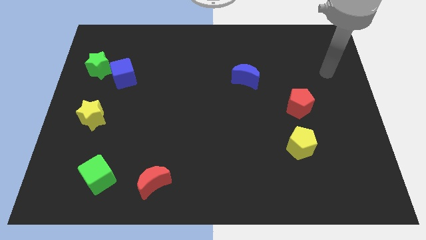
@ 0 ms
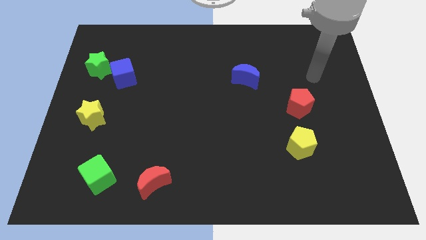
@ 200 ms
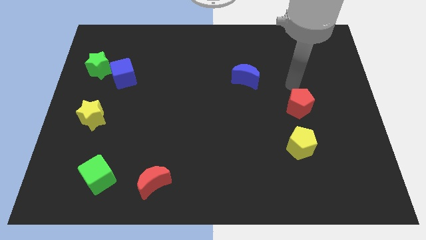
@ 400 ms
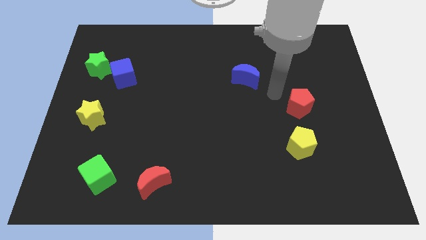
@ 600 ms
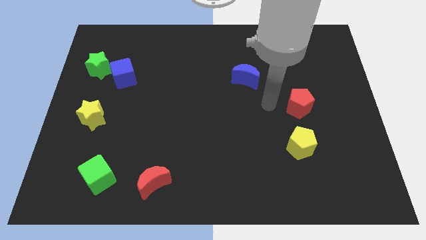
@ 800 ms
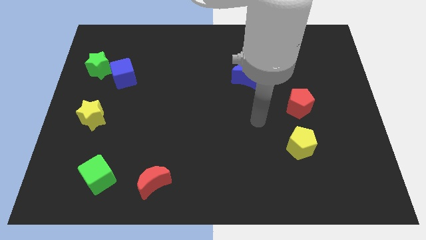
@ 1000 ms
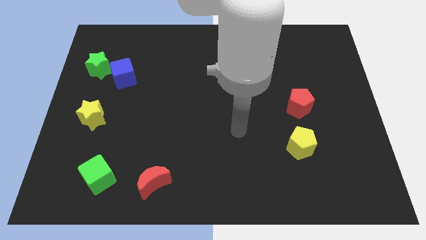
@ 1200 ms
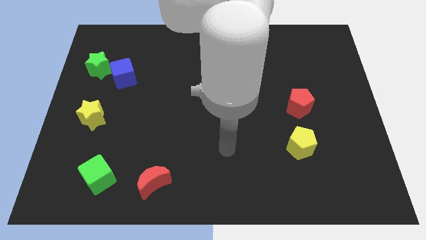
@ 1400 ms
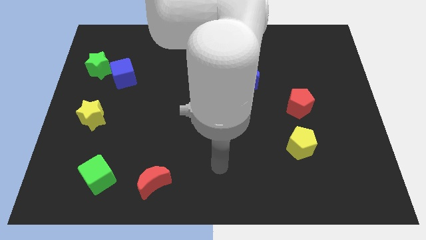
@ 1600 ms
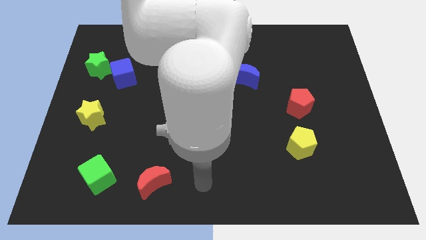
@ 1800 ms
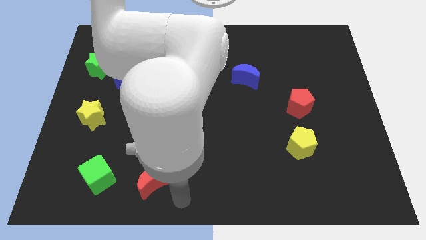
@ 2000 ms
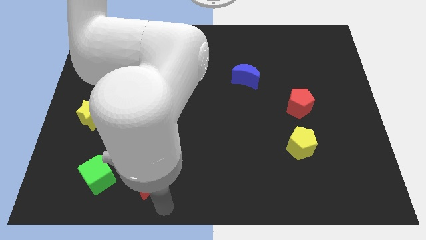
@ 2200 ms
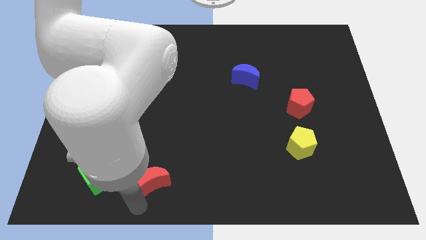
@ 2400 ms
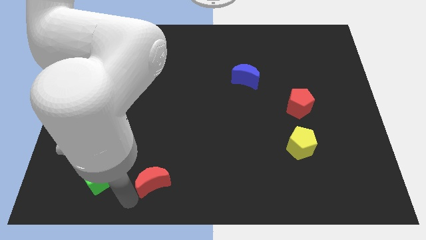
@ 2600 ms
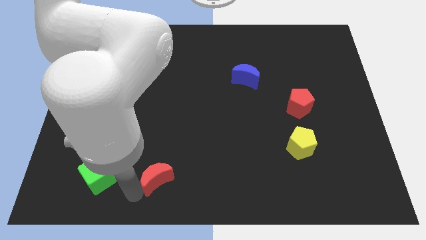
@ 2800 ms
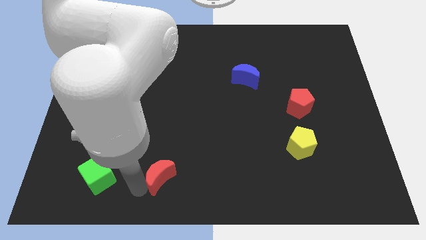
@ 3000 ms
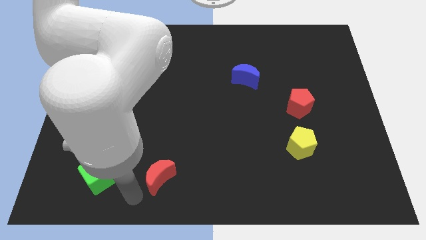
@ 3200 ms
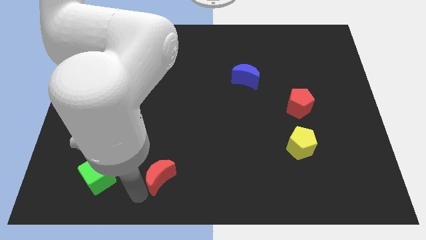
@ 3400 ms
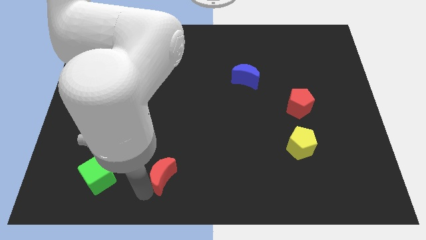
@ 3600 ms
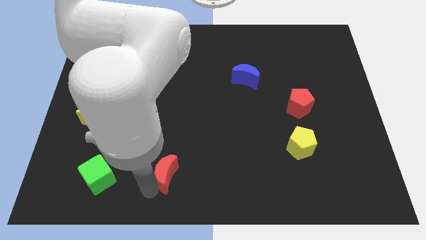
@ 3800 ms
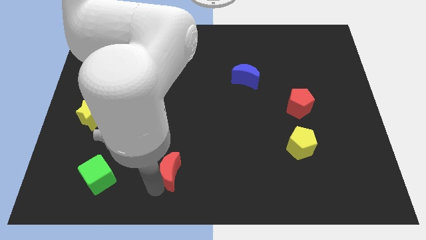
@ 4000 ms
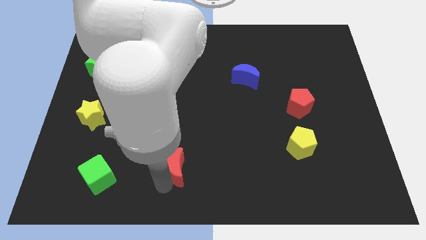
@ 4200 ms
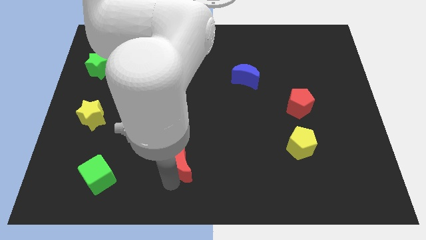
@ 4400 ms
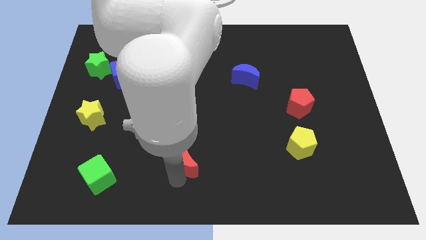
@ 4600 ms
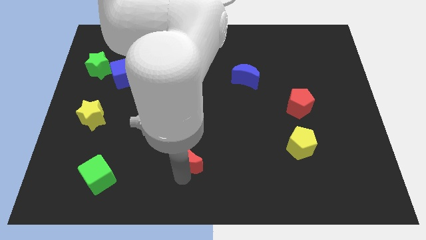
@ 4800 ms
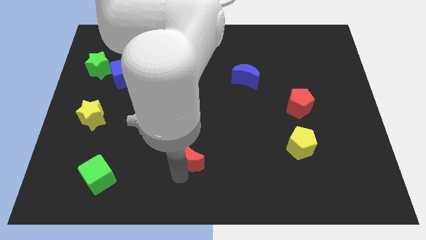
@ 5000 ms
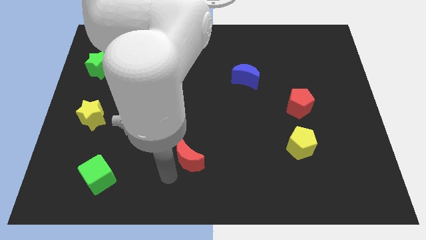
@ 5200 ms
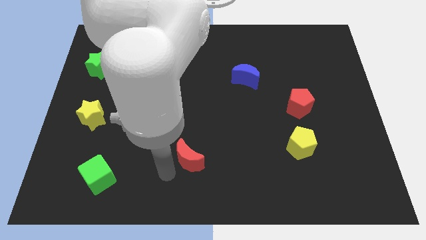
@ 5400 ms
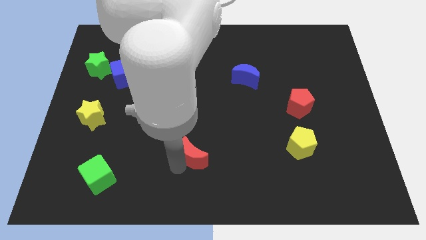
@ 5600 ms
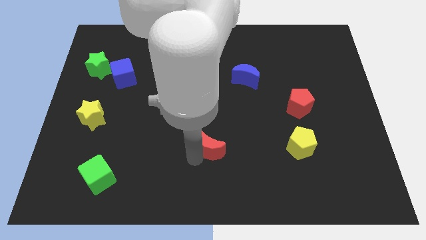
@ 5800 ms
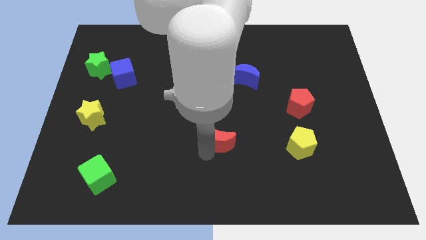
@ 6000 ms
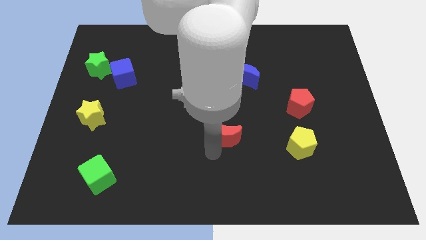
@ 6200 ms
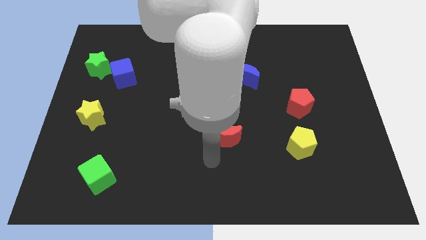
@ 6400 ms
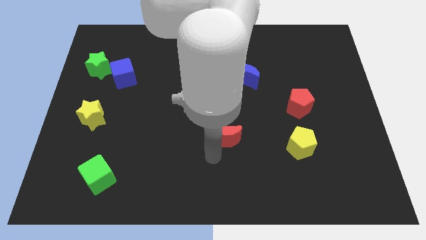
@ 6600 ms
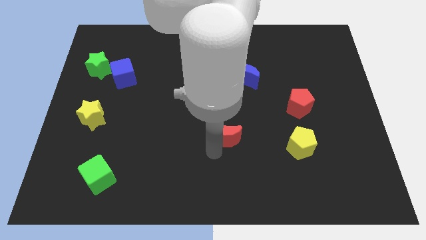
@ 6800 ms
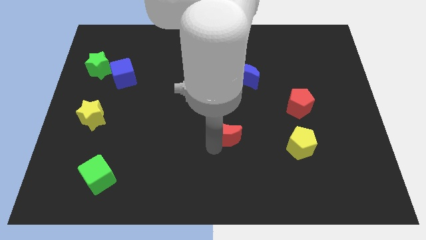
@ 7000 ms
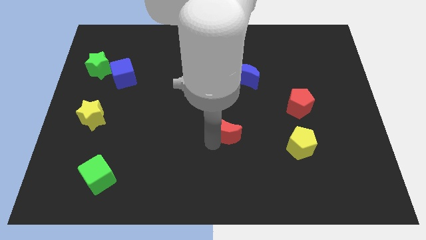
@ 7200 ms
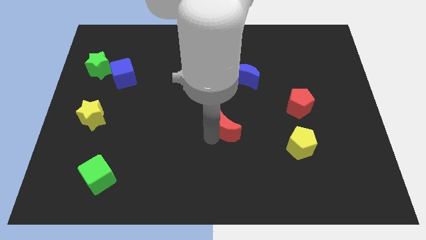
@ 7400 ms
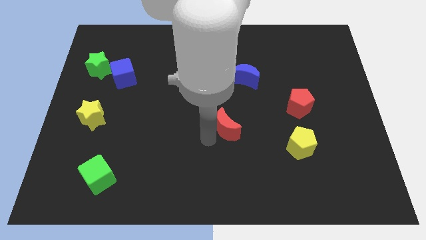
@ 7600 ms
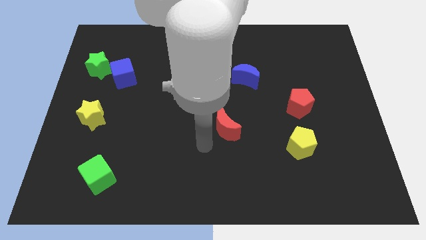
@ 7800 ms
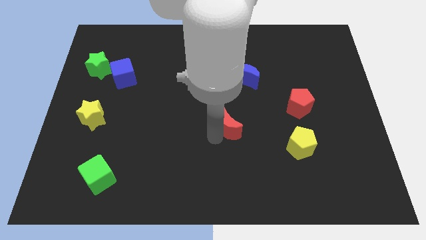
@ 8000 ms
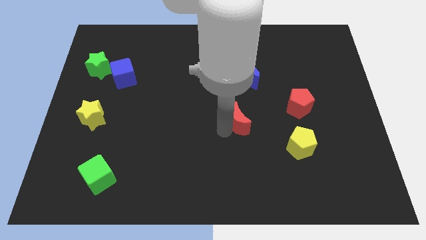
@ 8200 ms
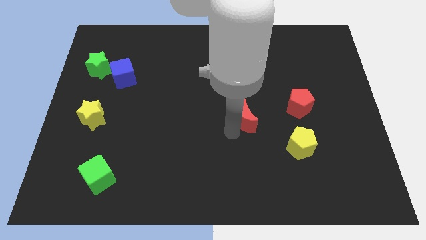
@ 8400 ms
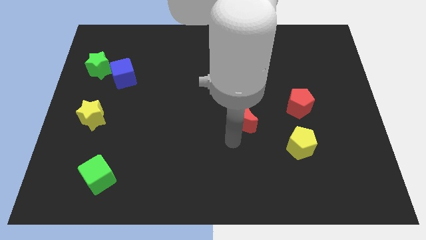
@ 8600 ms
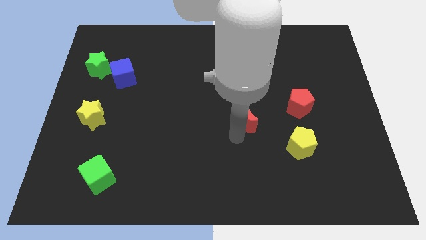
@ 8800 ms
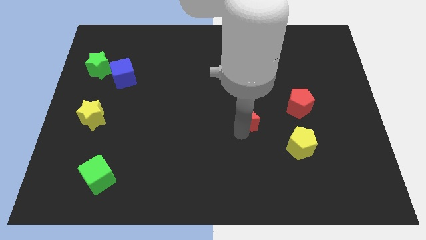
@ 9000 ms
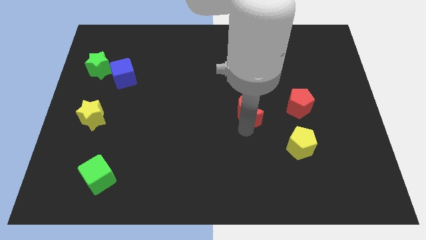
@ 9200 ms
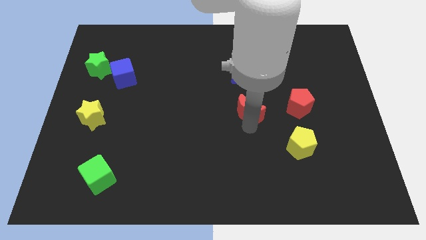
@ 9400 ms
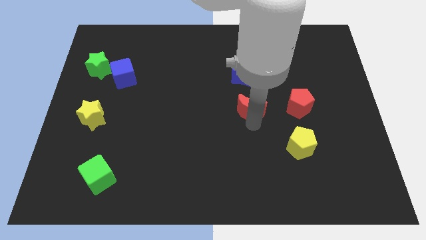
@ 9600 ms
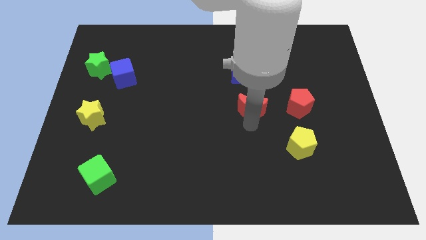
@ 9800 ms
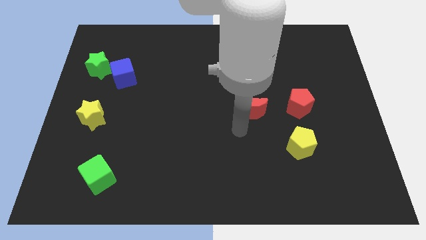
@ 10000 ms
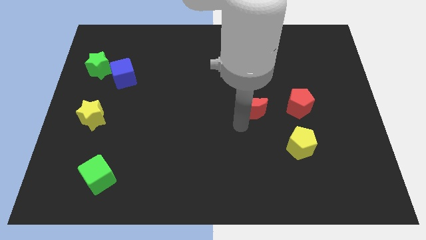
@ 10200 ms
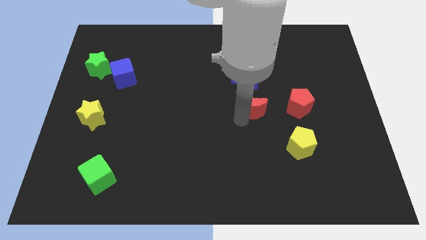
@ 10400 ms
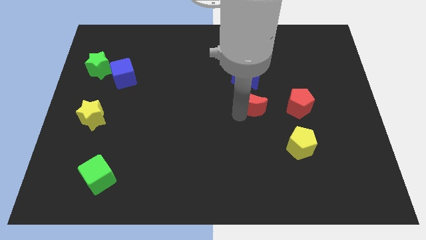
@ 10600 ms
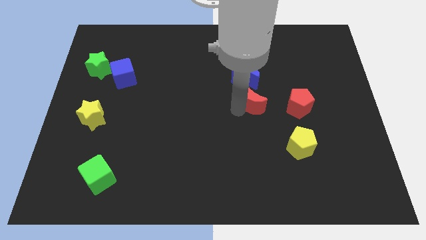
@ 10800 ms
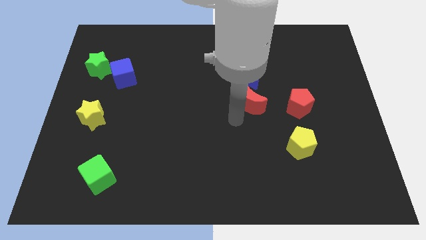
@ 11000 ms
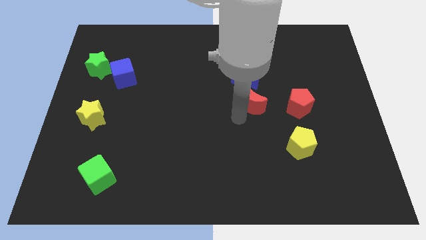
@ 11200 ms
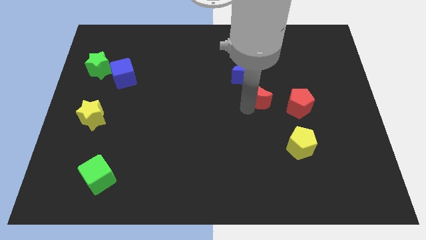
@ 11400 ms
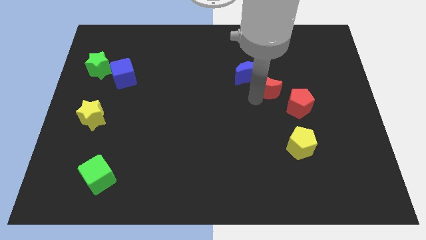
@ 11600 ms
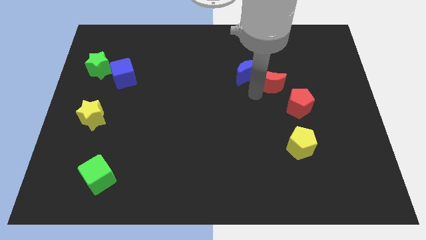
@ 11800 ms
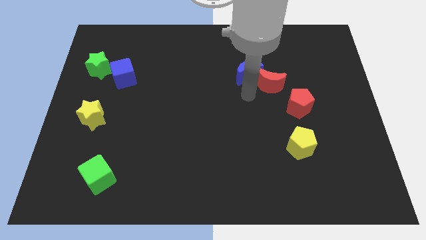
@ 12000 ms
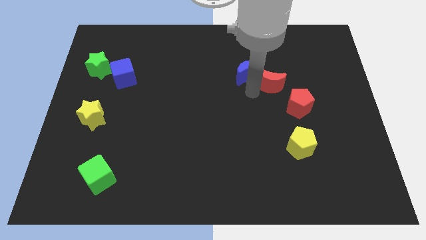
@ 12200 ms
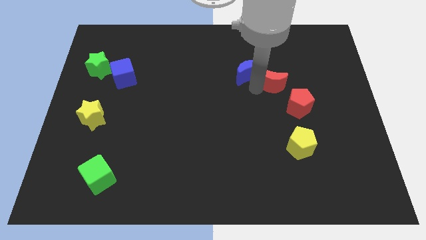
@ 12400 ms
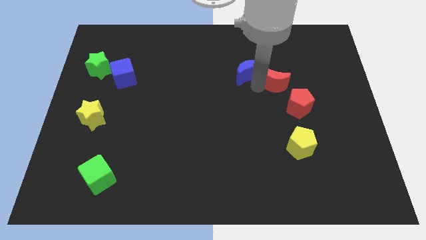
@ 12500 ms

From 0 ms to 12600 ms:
move the red moon above the red pentagon

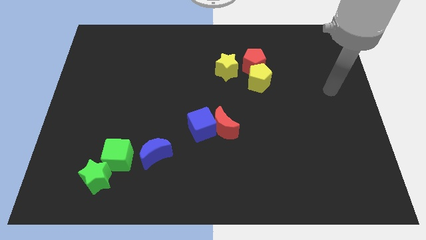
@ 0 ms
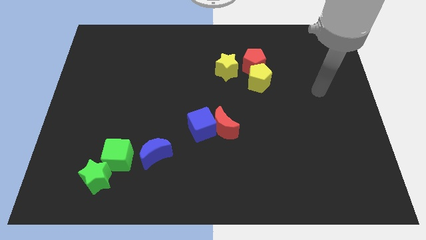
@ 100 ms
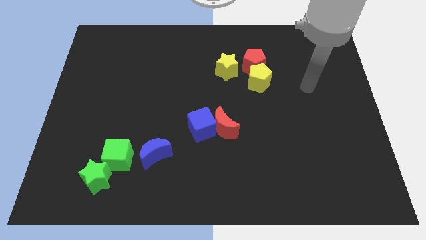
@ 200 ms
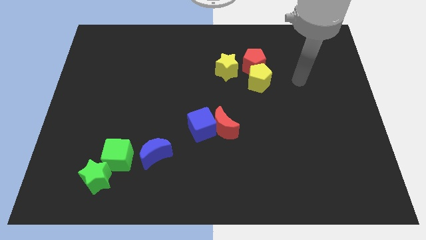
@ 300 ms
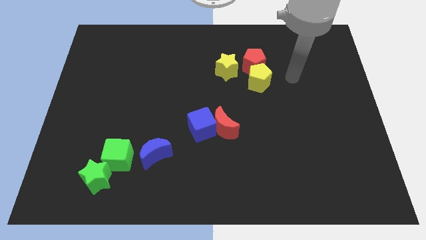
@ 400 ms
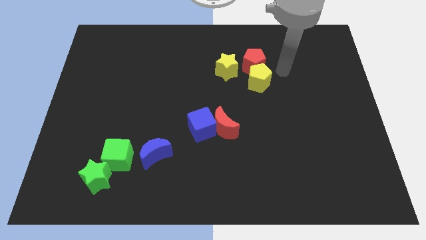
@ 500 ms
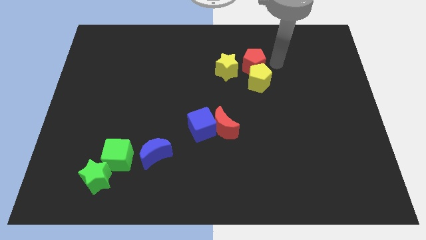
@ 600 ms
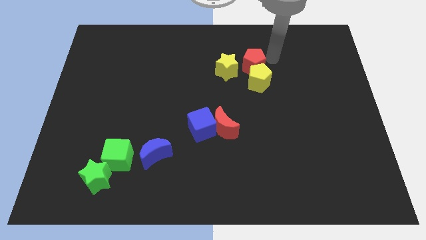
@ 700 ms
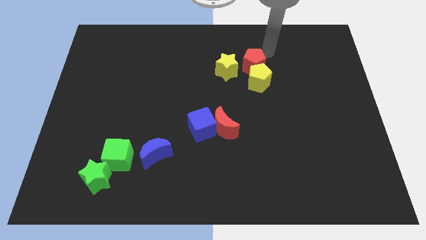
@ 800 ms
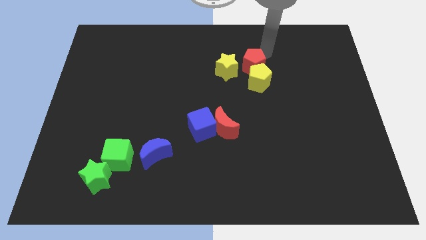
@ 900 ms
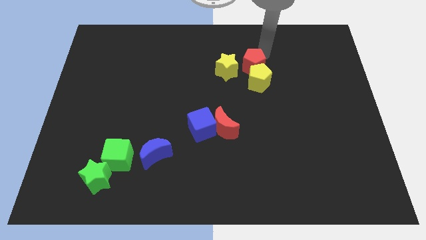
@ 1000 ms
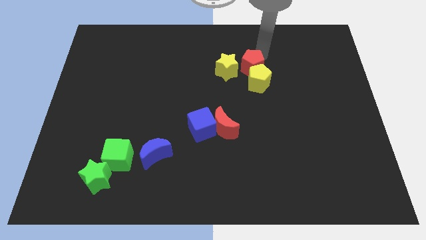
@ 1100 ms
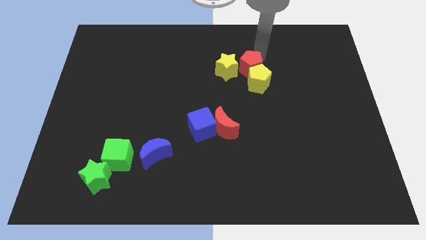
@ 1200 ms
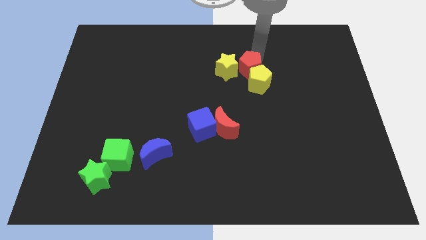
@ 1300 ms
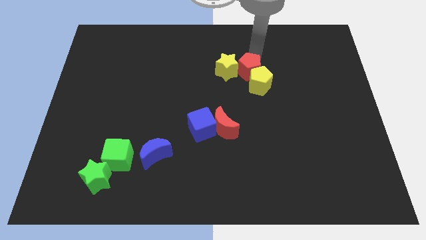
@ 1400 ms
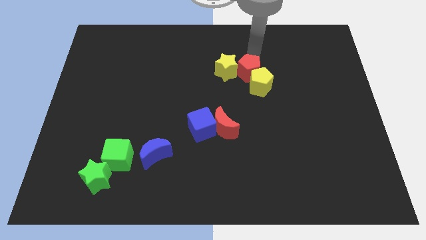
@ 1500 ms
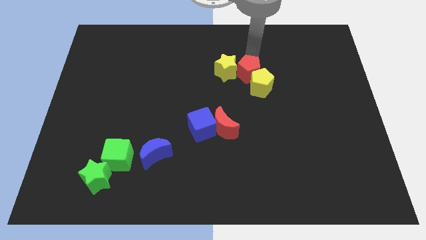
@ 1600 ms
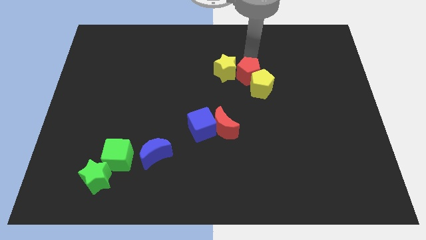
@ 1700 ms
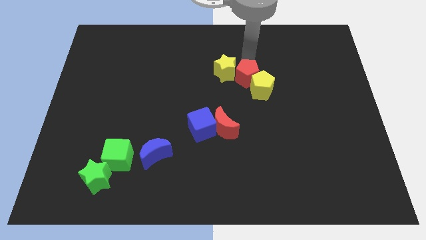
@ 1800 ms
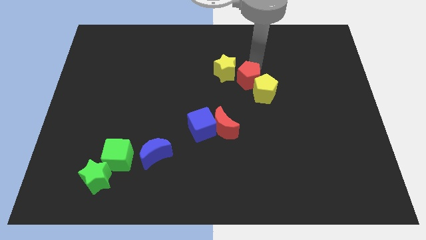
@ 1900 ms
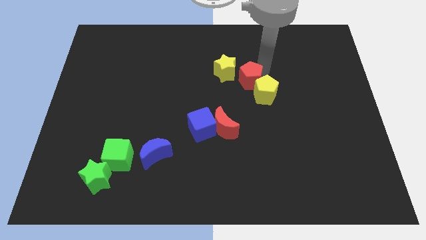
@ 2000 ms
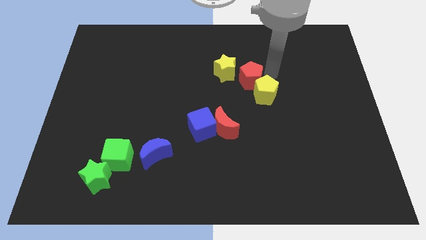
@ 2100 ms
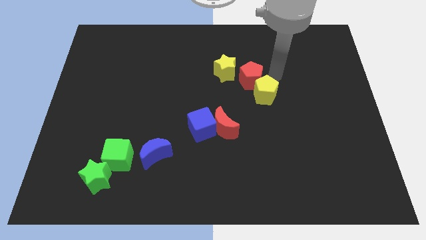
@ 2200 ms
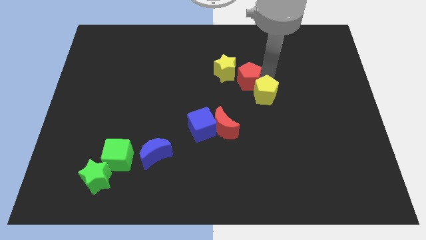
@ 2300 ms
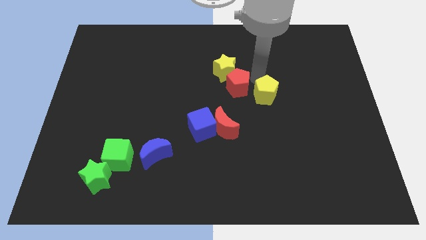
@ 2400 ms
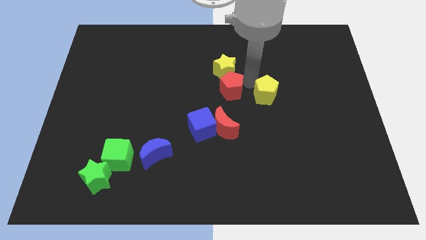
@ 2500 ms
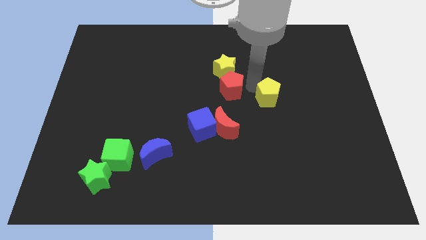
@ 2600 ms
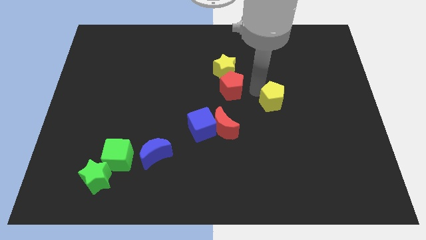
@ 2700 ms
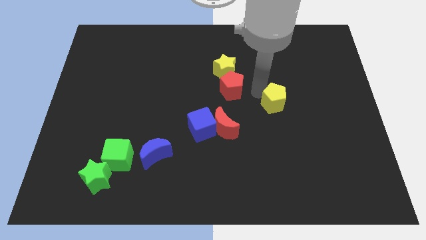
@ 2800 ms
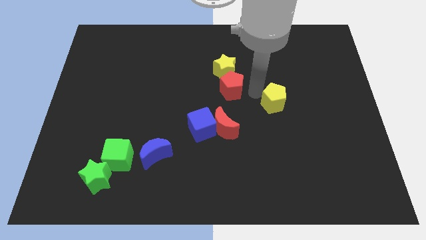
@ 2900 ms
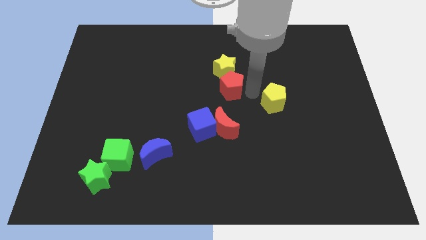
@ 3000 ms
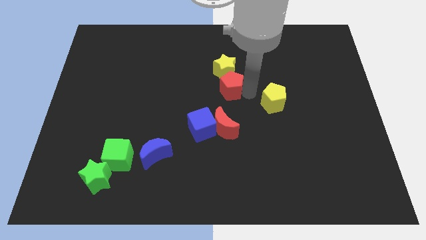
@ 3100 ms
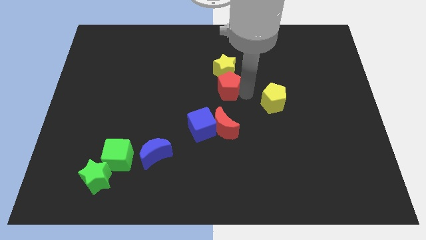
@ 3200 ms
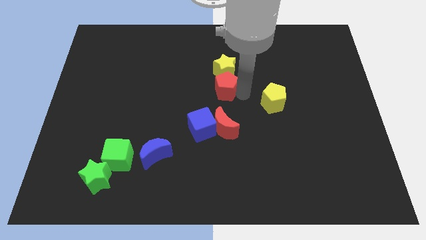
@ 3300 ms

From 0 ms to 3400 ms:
move the red pentagon diagonally down and to the left of the yellow star
